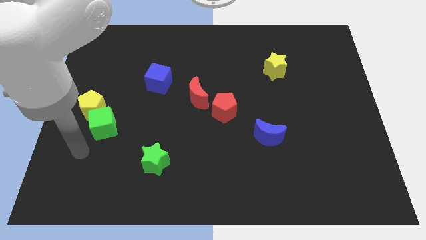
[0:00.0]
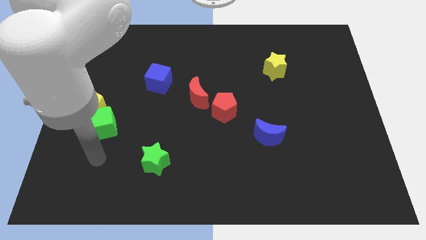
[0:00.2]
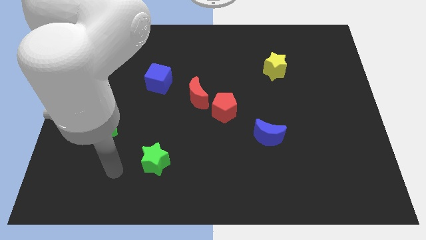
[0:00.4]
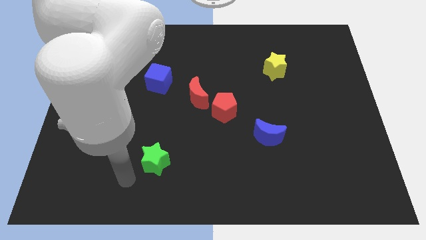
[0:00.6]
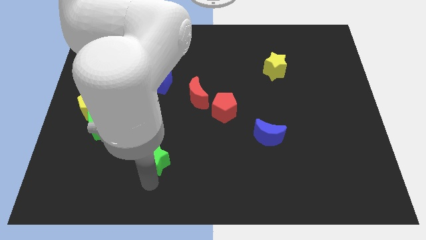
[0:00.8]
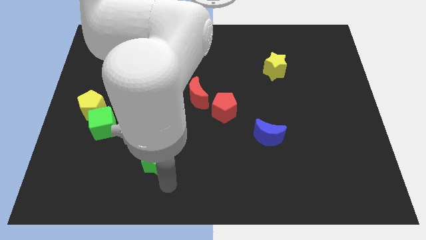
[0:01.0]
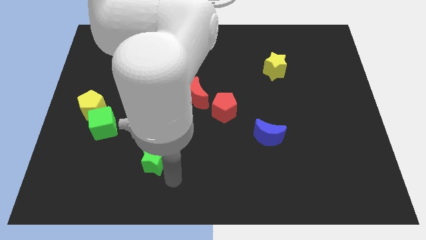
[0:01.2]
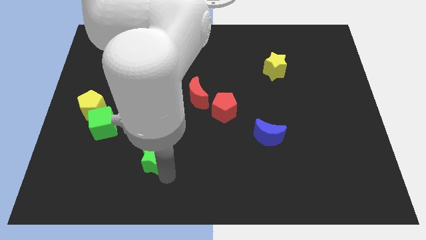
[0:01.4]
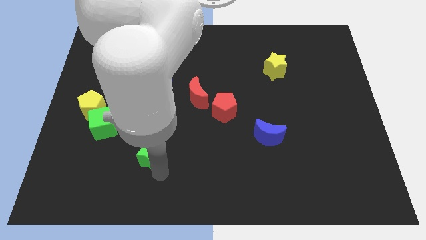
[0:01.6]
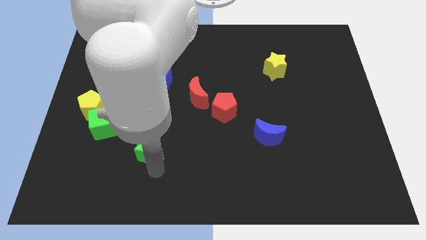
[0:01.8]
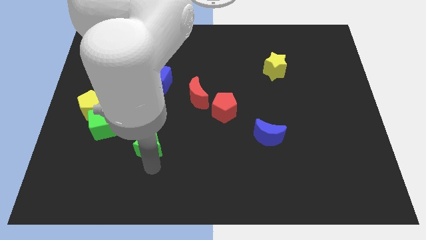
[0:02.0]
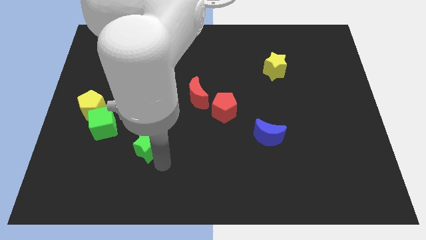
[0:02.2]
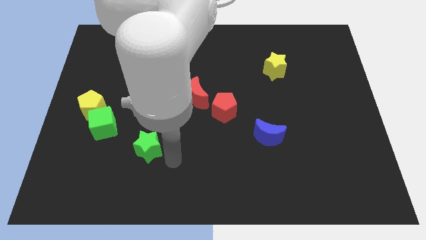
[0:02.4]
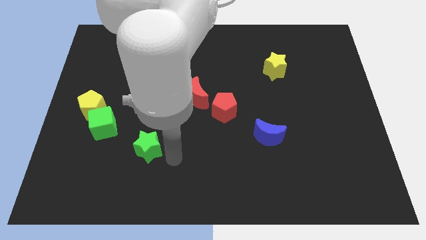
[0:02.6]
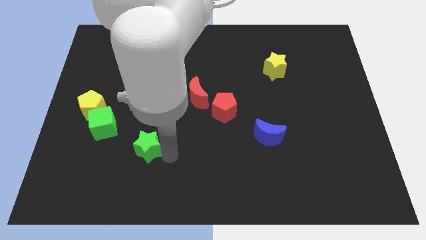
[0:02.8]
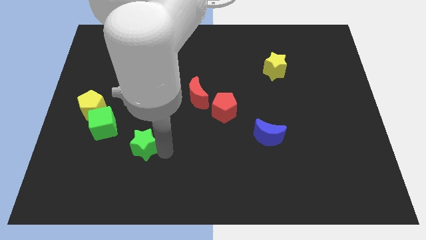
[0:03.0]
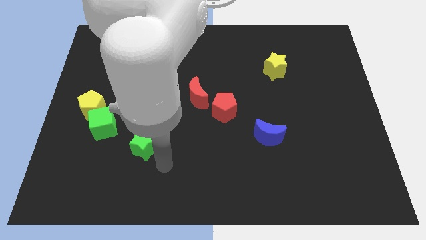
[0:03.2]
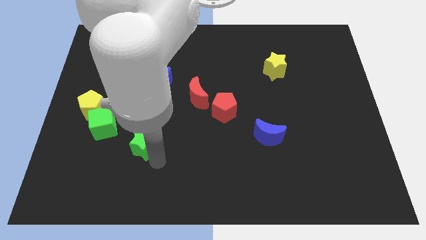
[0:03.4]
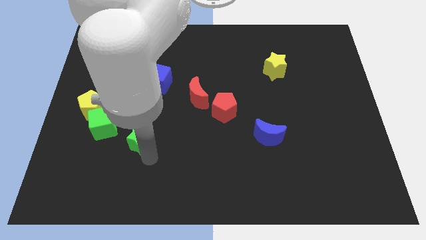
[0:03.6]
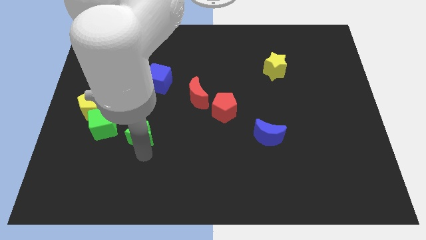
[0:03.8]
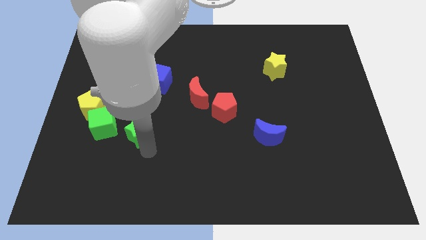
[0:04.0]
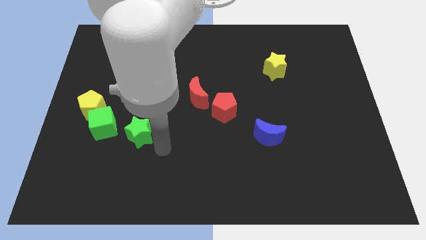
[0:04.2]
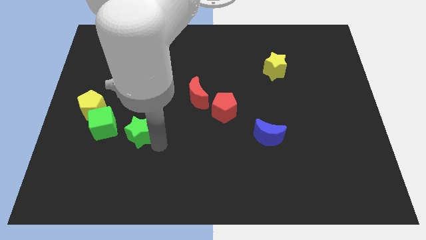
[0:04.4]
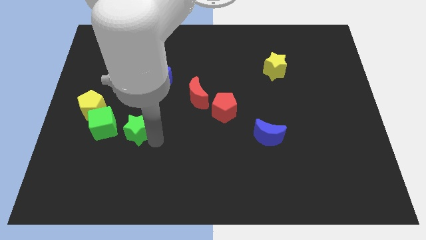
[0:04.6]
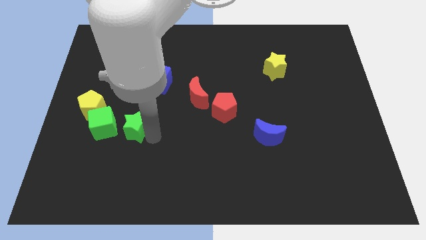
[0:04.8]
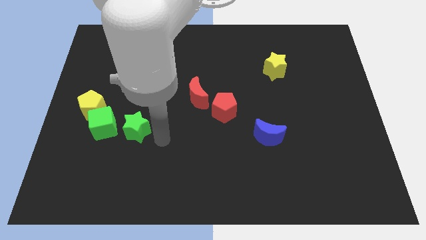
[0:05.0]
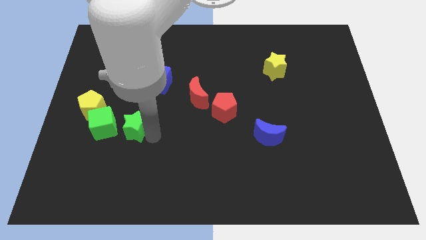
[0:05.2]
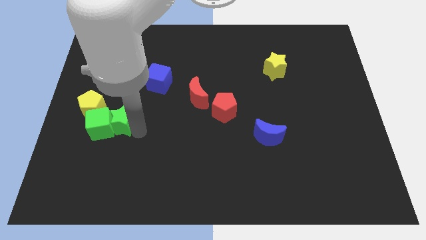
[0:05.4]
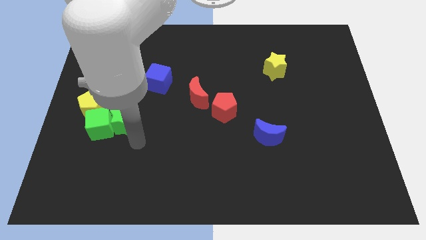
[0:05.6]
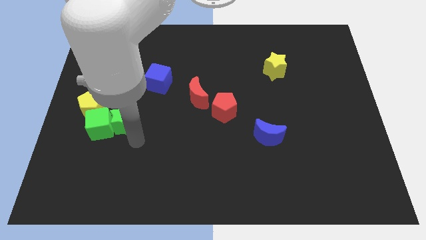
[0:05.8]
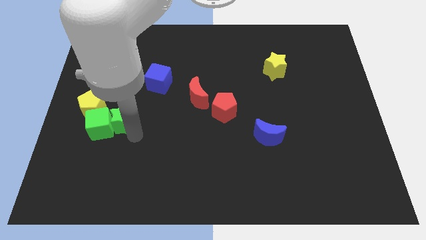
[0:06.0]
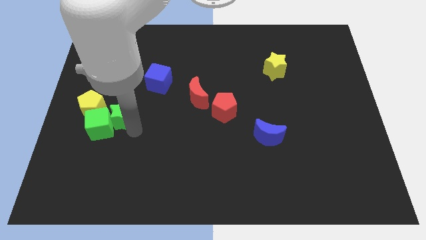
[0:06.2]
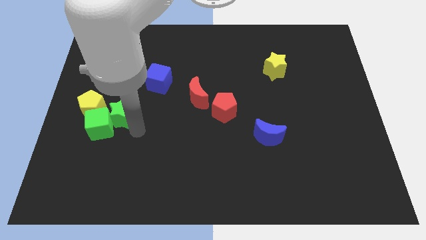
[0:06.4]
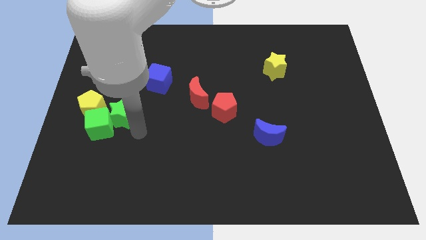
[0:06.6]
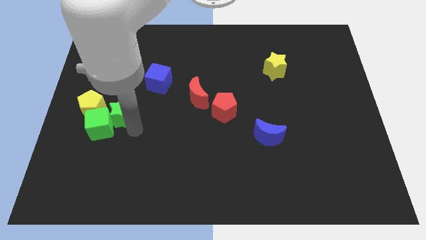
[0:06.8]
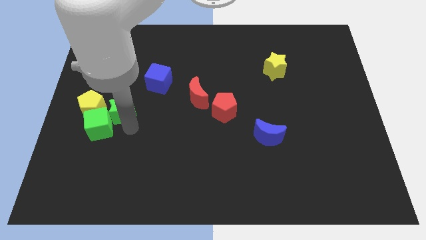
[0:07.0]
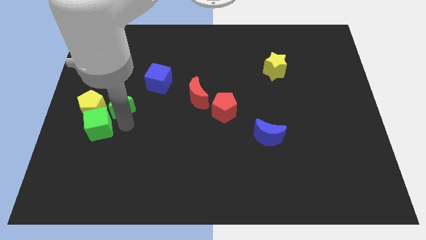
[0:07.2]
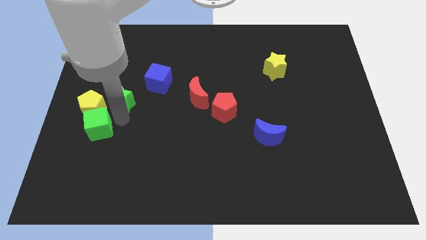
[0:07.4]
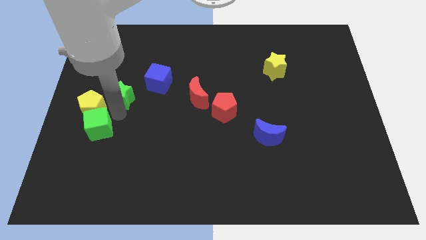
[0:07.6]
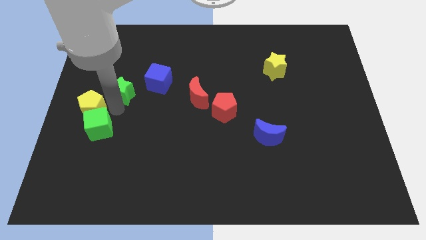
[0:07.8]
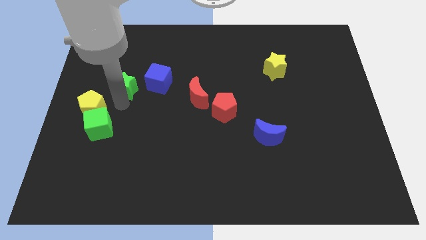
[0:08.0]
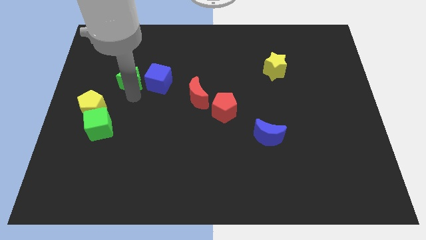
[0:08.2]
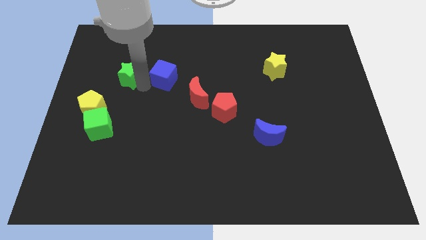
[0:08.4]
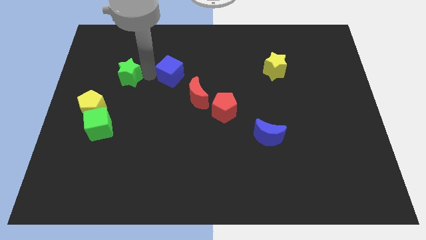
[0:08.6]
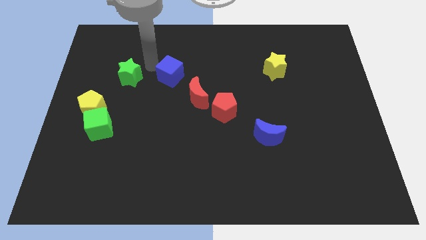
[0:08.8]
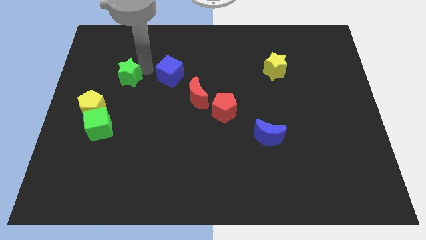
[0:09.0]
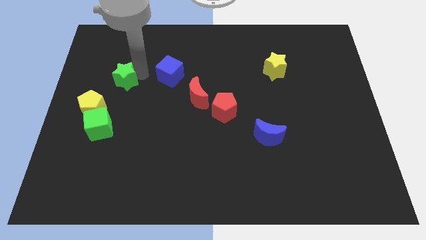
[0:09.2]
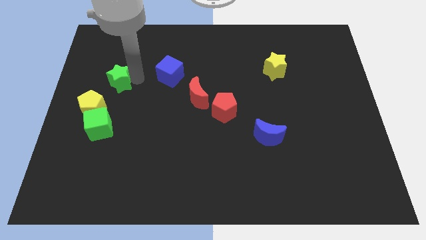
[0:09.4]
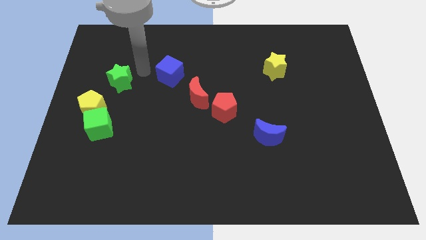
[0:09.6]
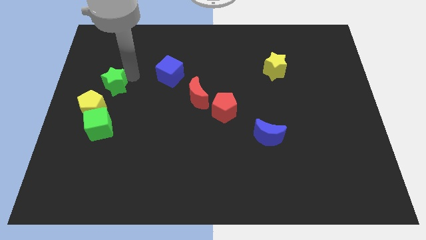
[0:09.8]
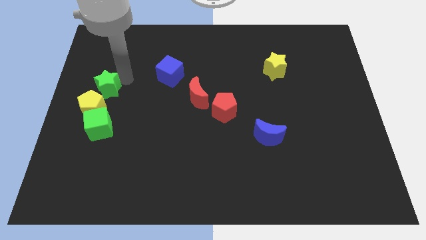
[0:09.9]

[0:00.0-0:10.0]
slide the green star to the left side of the board

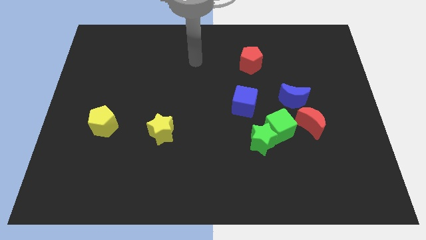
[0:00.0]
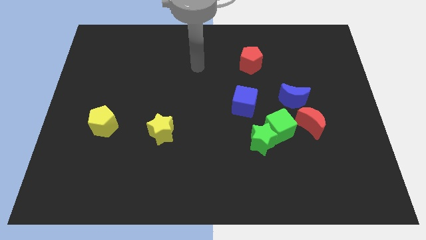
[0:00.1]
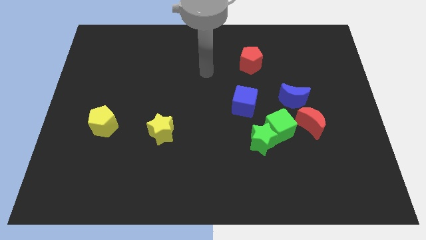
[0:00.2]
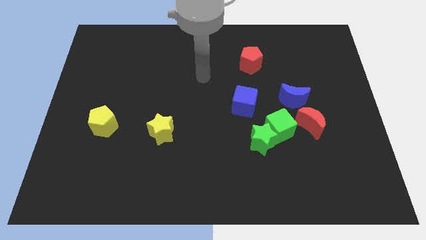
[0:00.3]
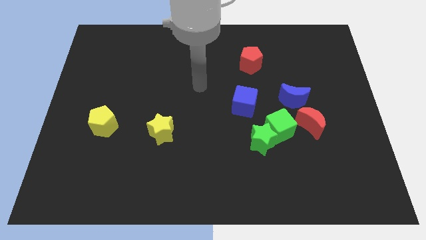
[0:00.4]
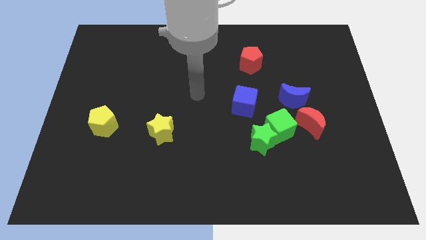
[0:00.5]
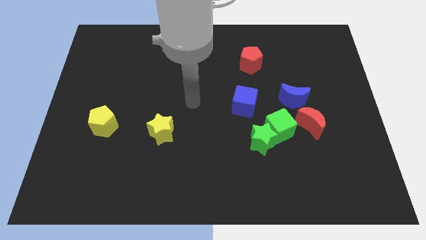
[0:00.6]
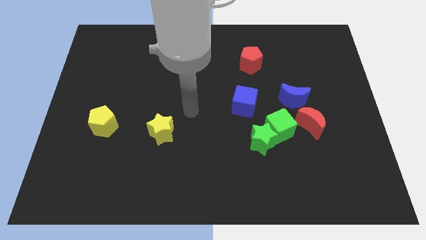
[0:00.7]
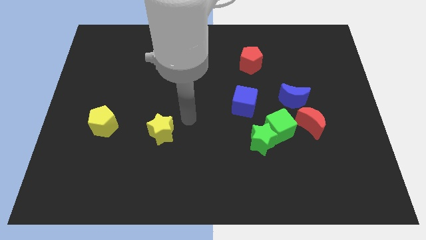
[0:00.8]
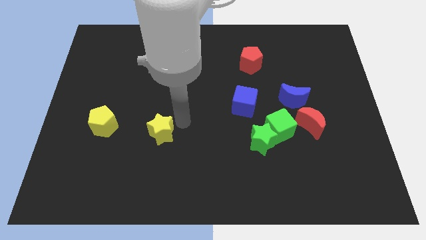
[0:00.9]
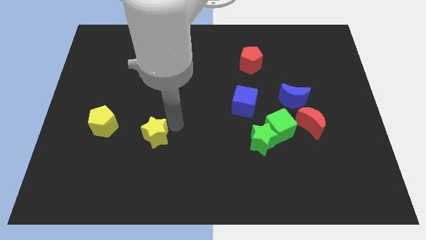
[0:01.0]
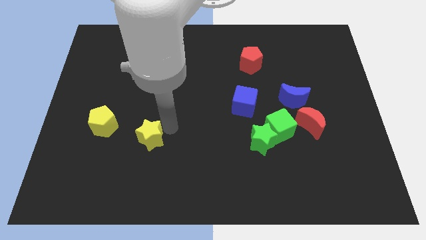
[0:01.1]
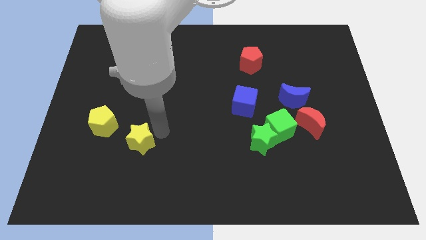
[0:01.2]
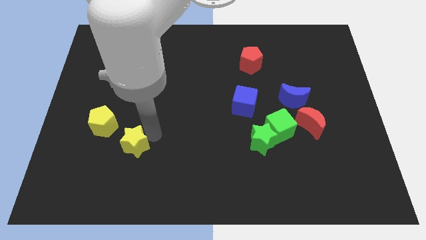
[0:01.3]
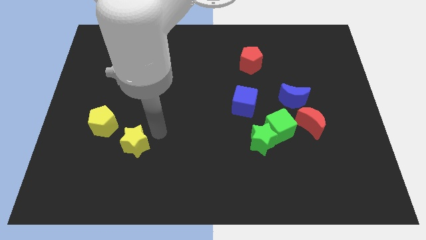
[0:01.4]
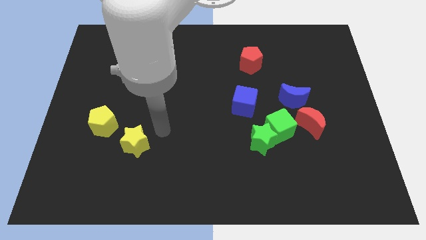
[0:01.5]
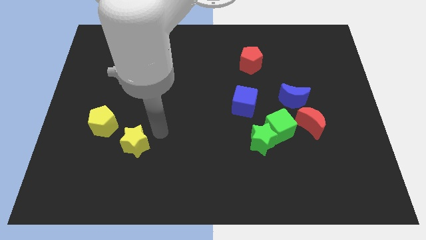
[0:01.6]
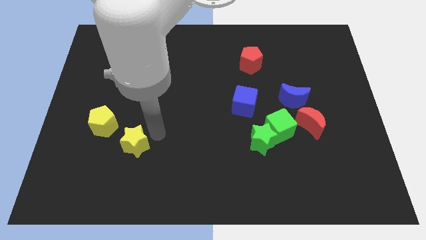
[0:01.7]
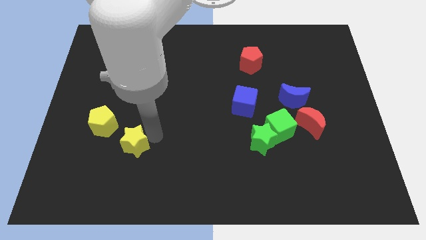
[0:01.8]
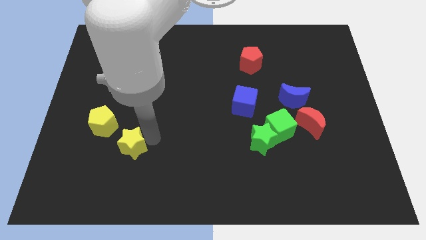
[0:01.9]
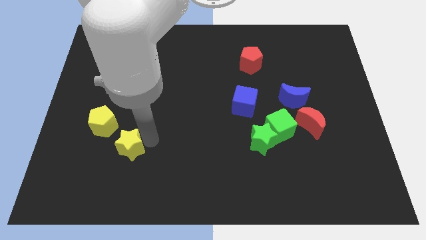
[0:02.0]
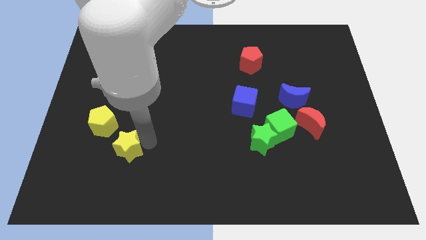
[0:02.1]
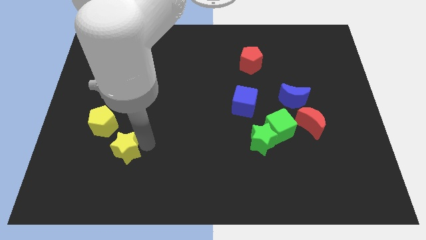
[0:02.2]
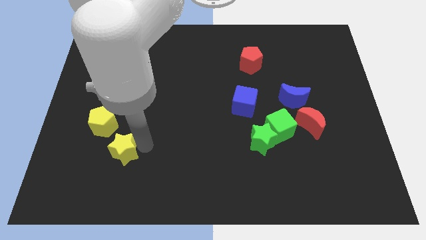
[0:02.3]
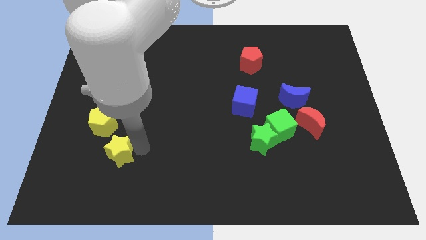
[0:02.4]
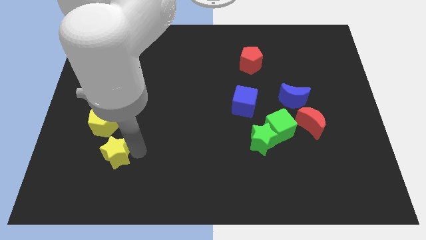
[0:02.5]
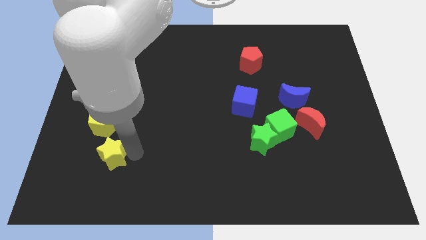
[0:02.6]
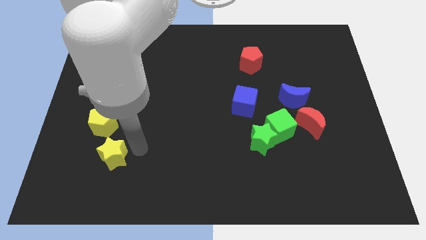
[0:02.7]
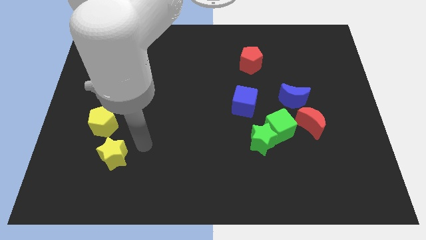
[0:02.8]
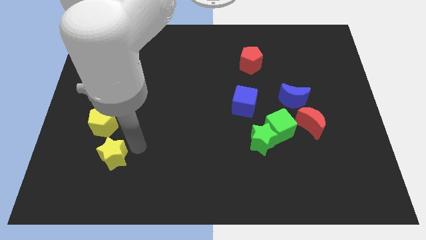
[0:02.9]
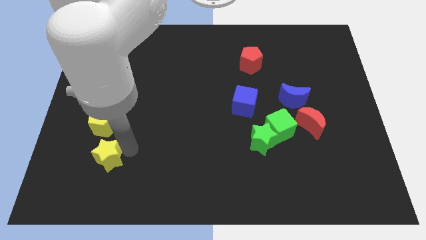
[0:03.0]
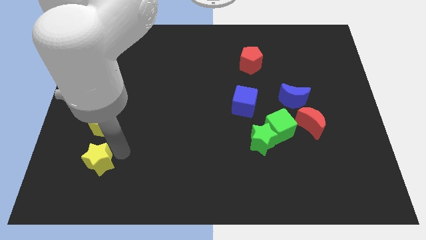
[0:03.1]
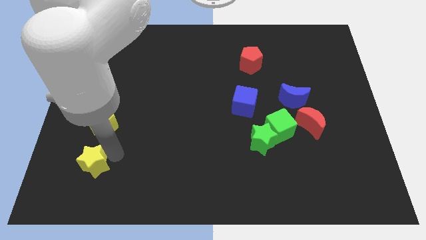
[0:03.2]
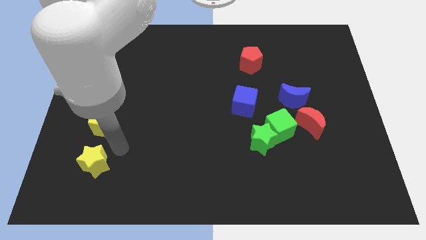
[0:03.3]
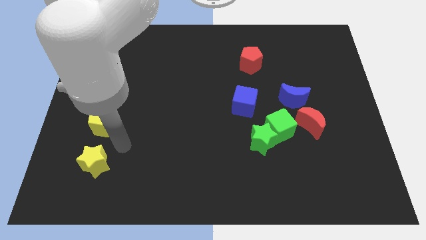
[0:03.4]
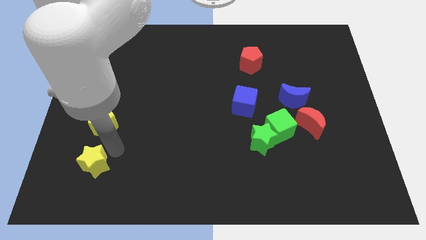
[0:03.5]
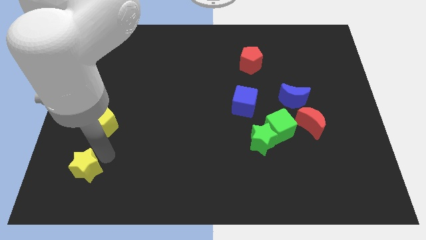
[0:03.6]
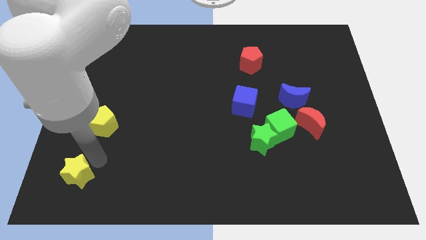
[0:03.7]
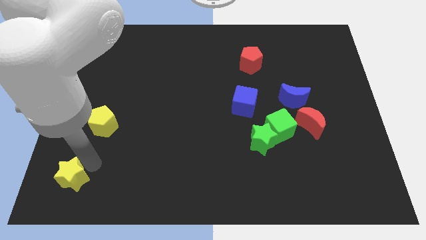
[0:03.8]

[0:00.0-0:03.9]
slide the yellow star to the bottom left corner
